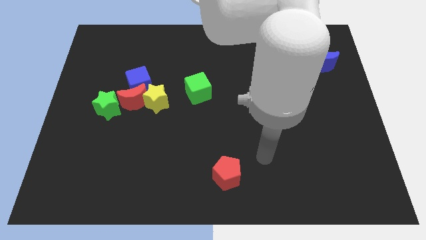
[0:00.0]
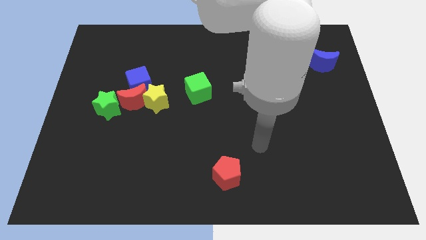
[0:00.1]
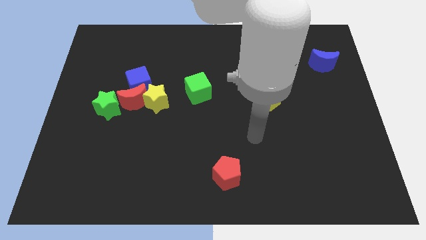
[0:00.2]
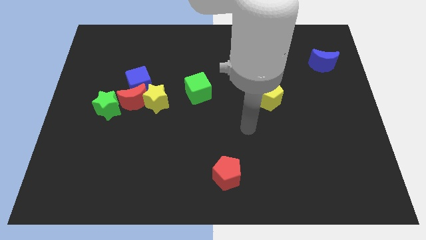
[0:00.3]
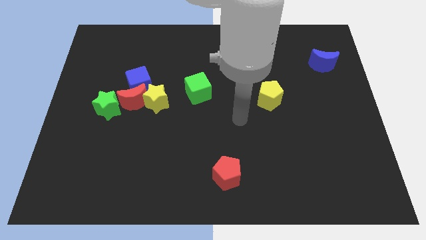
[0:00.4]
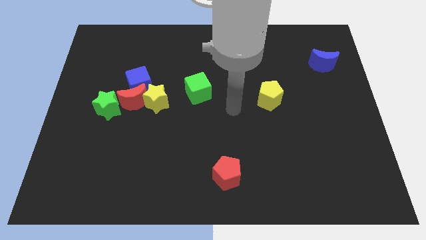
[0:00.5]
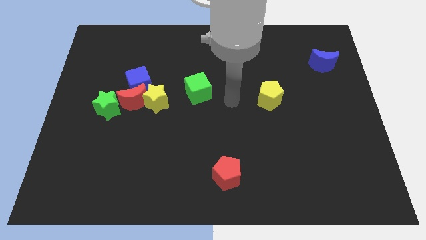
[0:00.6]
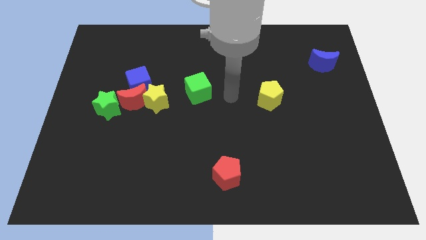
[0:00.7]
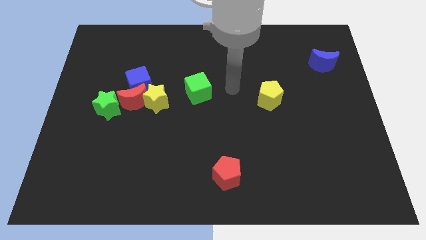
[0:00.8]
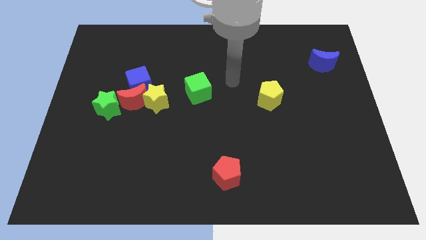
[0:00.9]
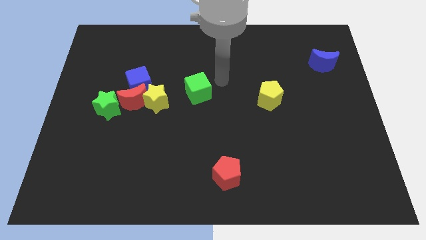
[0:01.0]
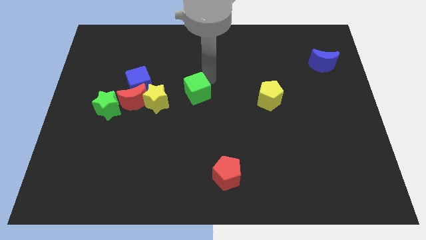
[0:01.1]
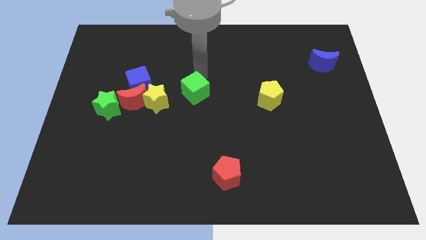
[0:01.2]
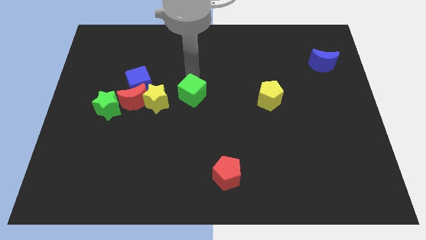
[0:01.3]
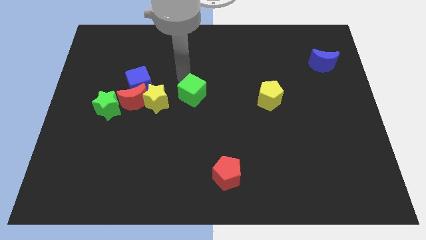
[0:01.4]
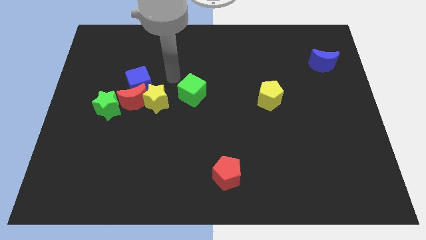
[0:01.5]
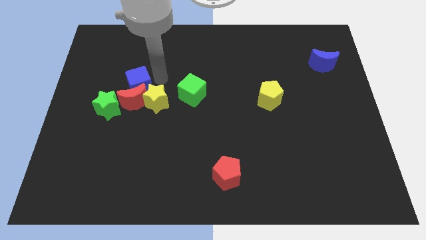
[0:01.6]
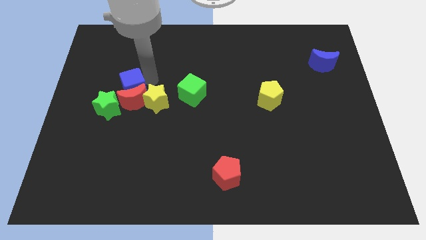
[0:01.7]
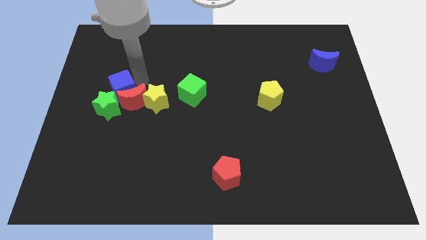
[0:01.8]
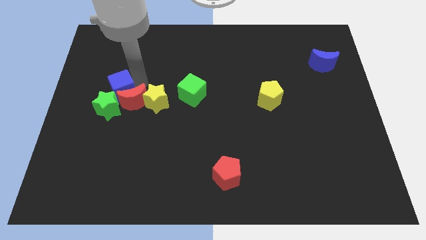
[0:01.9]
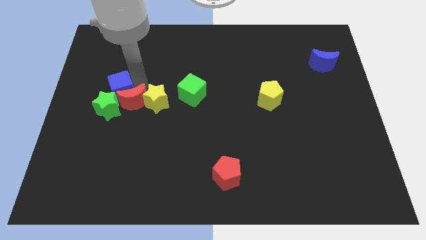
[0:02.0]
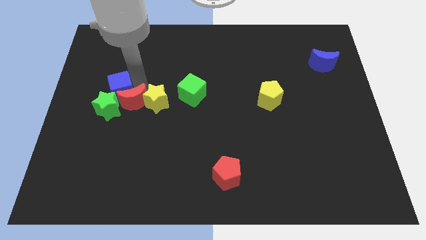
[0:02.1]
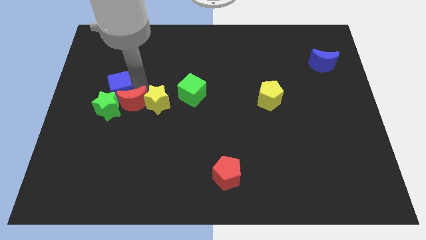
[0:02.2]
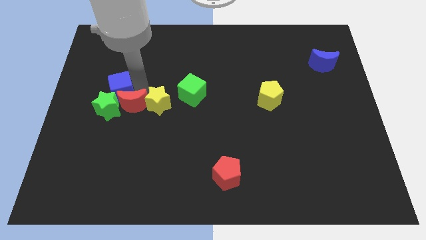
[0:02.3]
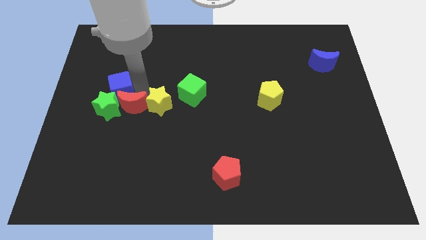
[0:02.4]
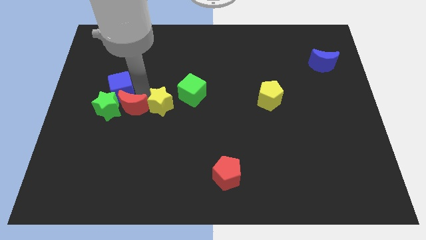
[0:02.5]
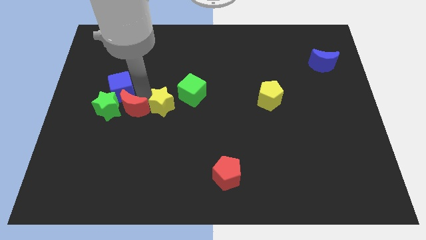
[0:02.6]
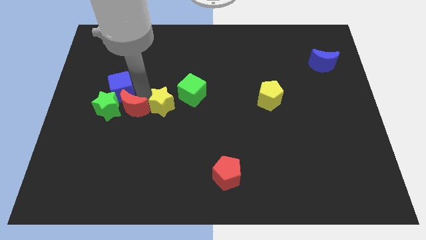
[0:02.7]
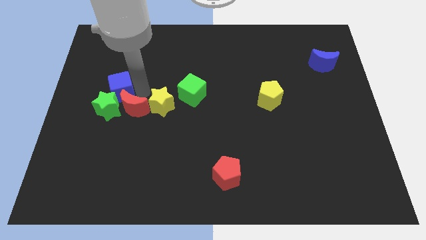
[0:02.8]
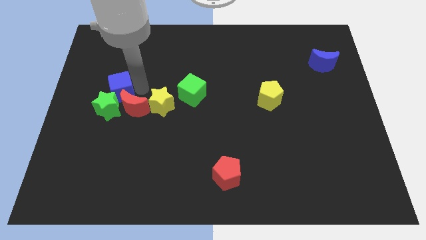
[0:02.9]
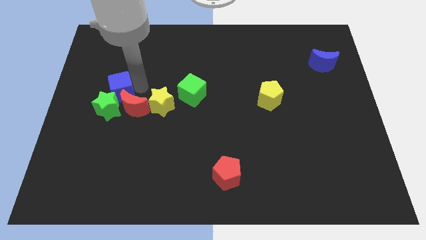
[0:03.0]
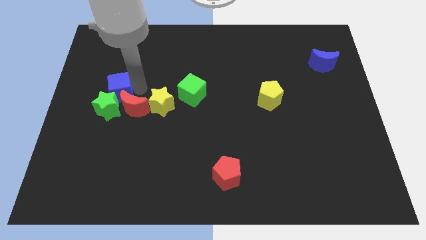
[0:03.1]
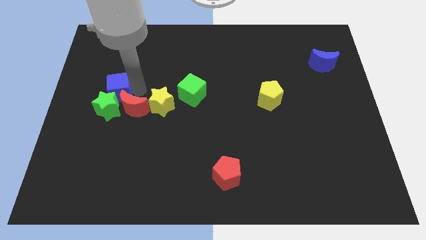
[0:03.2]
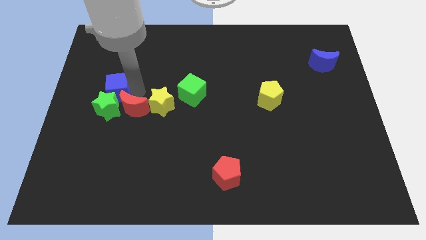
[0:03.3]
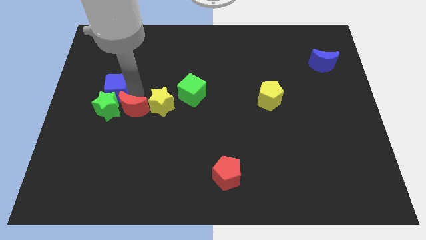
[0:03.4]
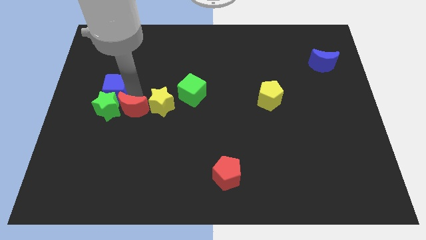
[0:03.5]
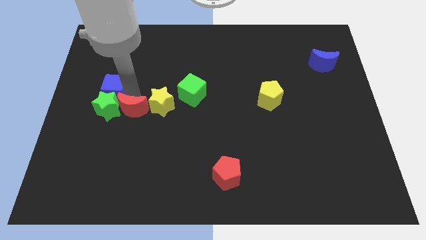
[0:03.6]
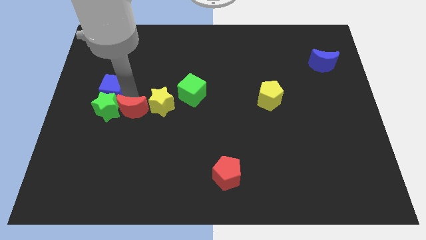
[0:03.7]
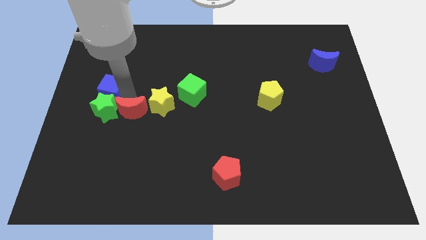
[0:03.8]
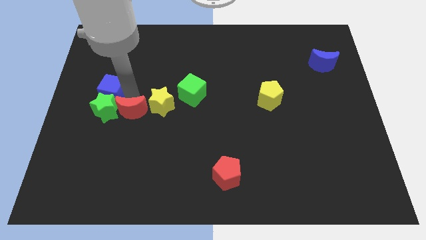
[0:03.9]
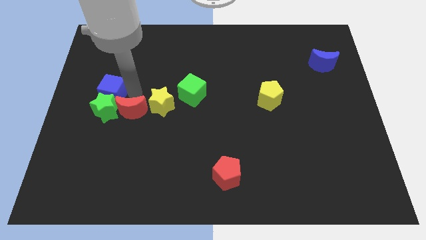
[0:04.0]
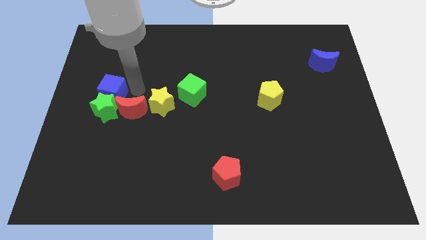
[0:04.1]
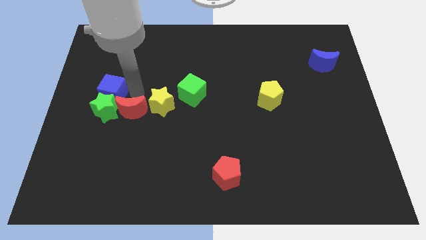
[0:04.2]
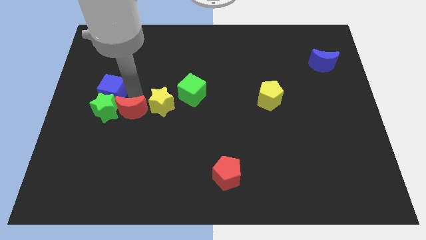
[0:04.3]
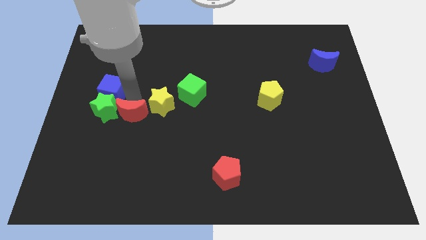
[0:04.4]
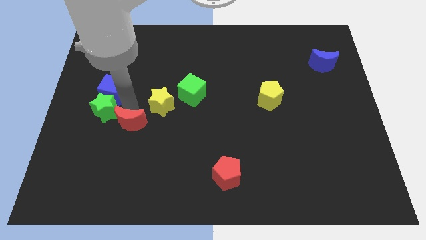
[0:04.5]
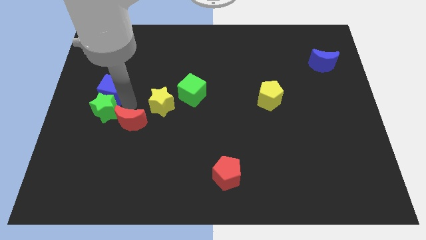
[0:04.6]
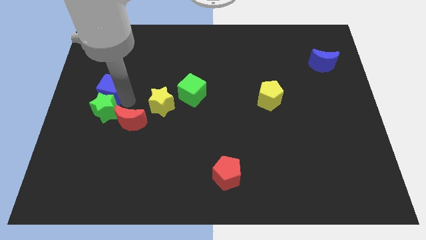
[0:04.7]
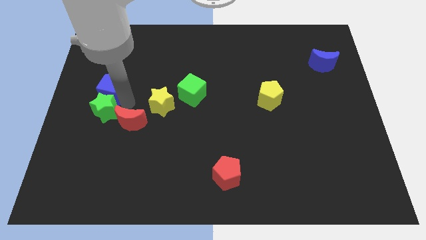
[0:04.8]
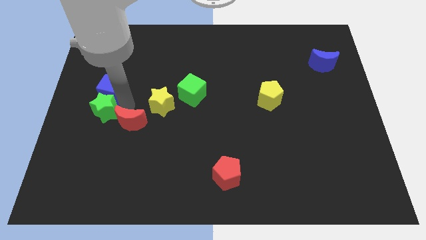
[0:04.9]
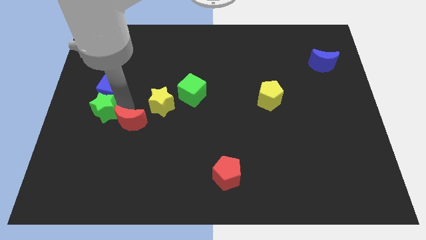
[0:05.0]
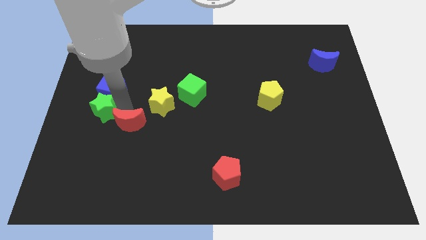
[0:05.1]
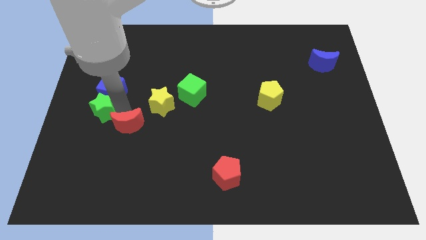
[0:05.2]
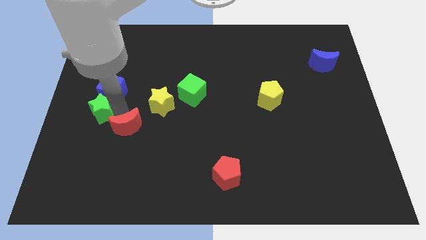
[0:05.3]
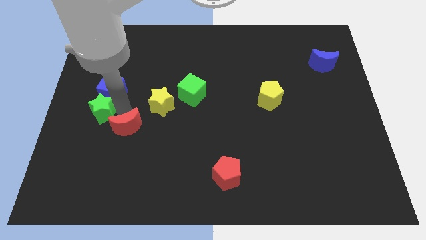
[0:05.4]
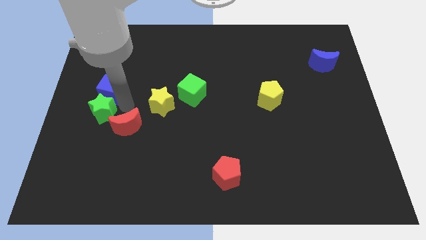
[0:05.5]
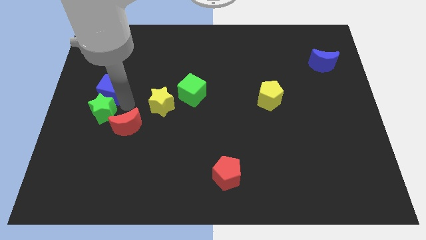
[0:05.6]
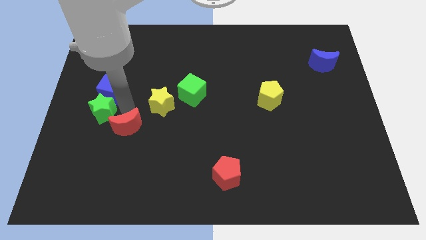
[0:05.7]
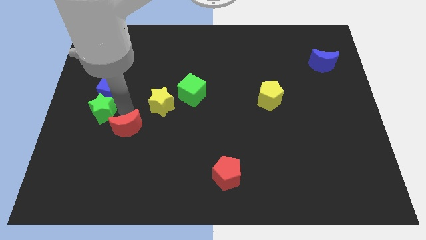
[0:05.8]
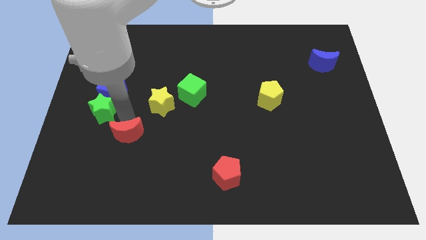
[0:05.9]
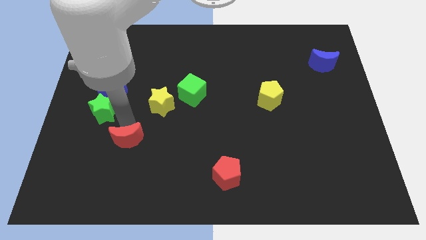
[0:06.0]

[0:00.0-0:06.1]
separate the red moon from the group of blocks

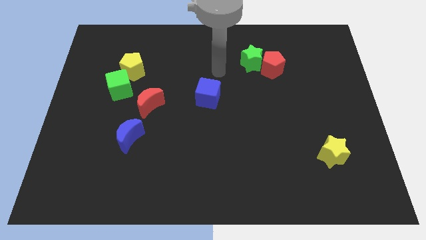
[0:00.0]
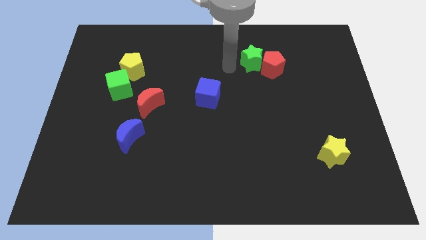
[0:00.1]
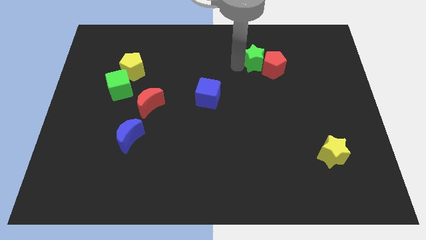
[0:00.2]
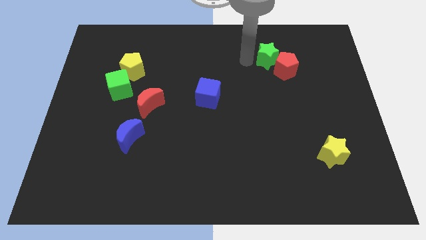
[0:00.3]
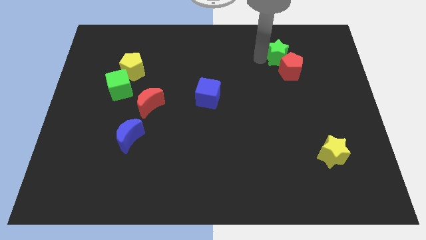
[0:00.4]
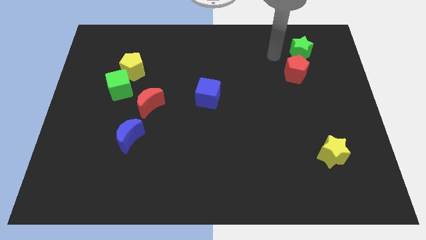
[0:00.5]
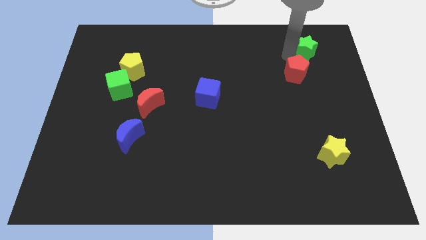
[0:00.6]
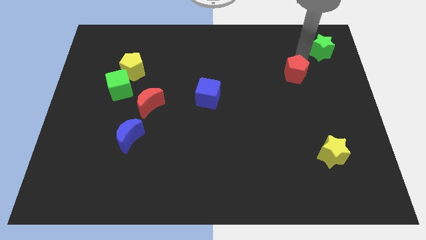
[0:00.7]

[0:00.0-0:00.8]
move the red pentagon away from the green star

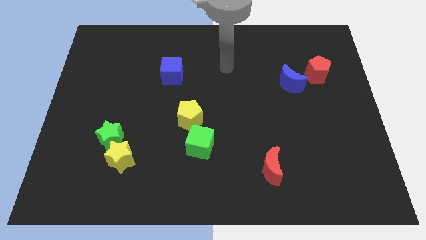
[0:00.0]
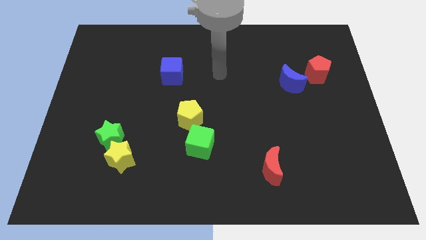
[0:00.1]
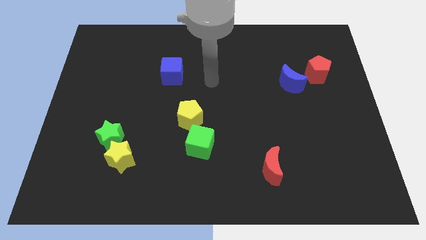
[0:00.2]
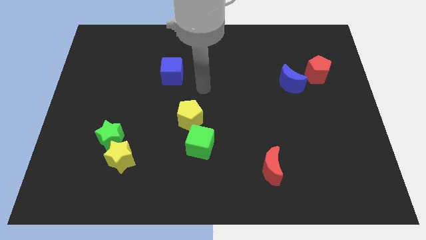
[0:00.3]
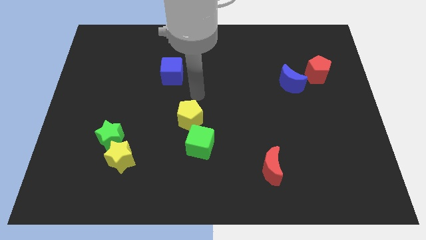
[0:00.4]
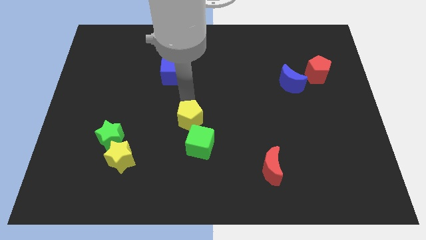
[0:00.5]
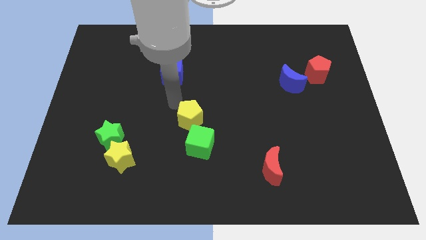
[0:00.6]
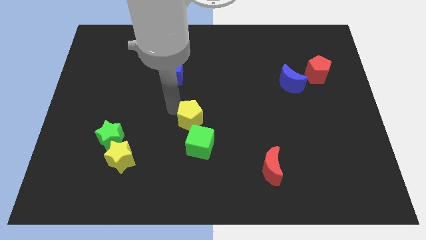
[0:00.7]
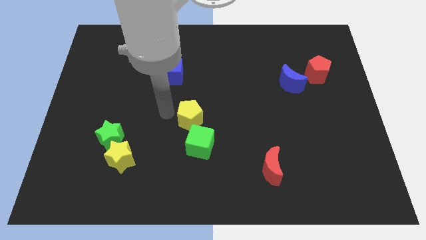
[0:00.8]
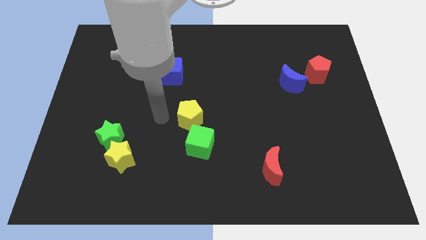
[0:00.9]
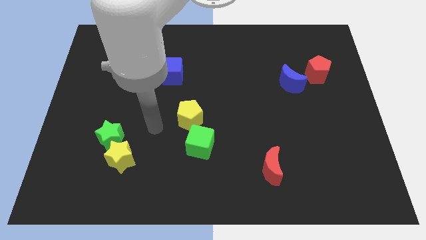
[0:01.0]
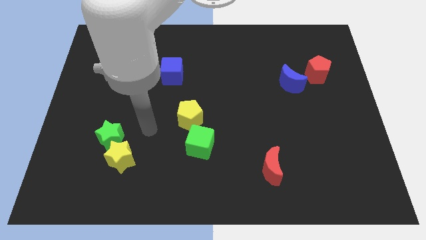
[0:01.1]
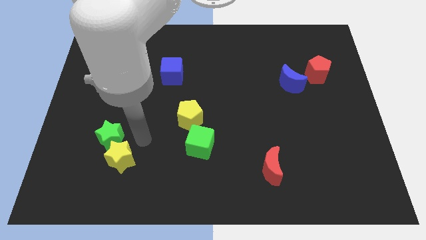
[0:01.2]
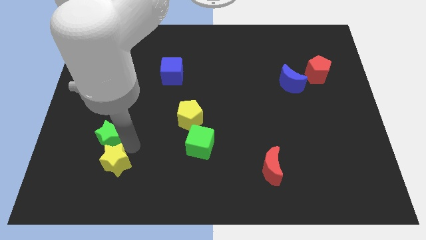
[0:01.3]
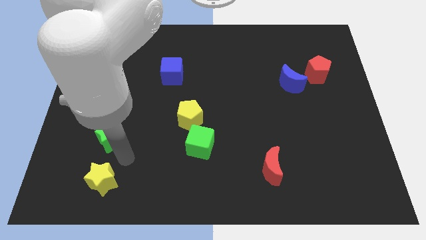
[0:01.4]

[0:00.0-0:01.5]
separate the green star from the yellow star

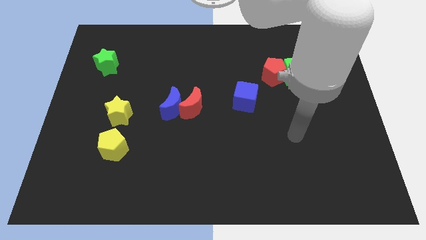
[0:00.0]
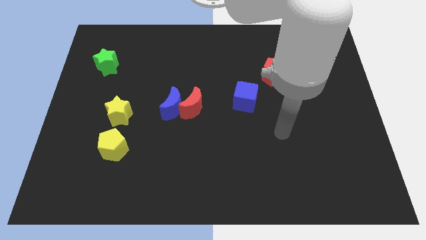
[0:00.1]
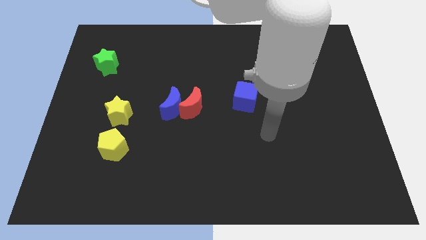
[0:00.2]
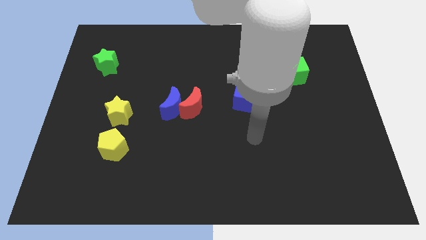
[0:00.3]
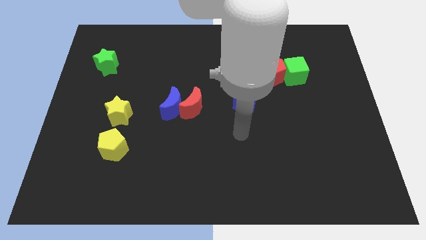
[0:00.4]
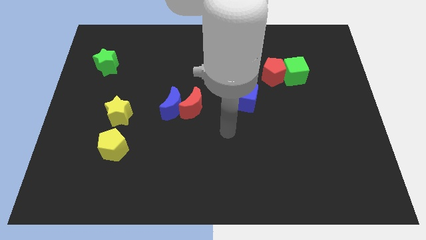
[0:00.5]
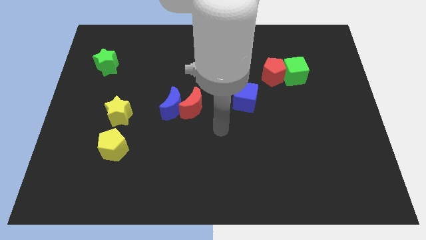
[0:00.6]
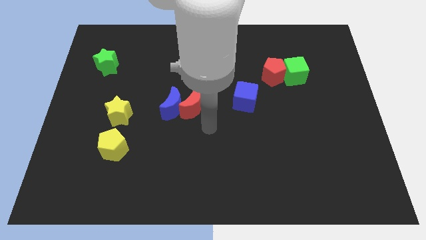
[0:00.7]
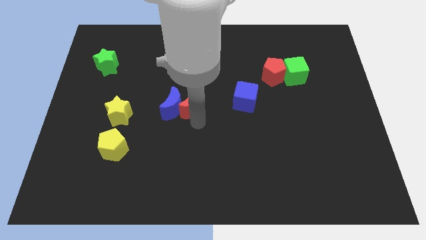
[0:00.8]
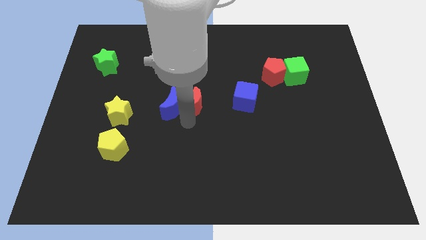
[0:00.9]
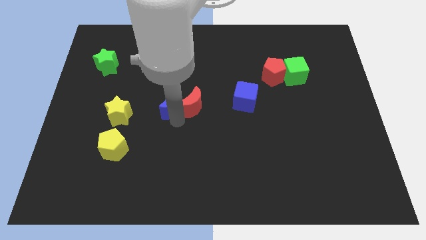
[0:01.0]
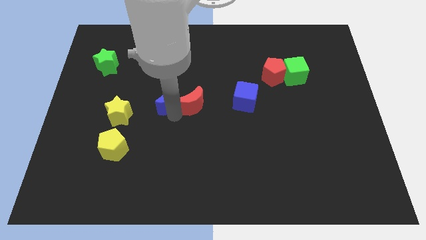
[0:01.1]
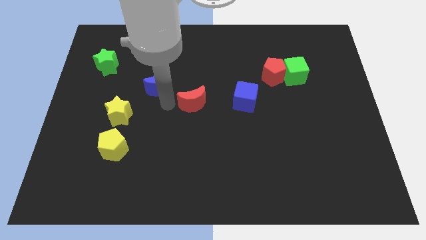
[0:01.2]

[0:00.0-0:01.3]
pull the red moon apart from the blue moon
